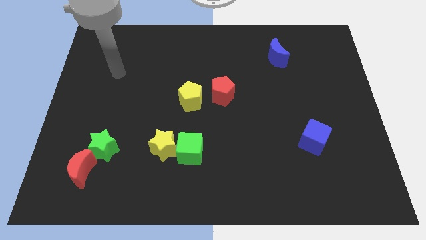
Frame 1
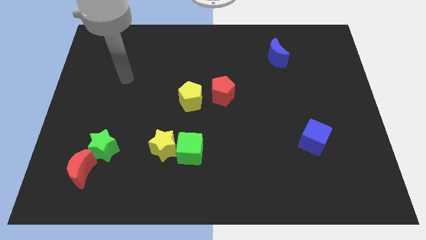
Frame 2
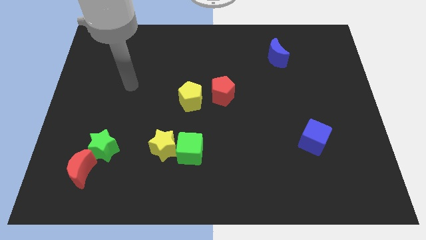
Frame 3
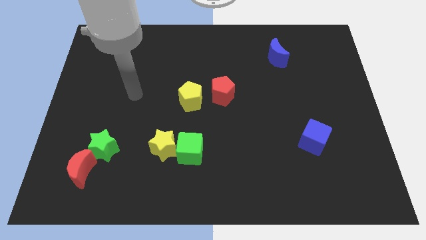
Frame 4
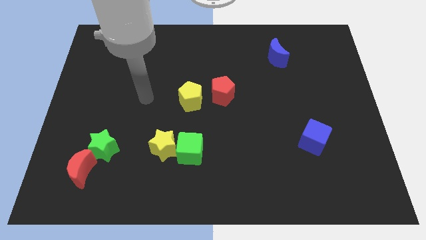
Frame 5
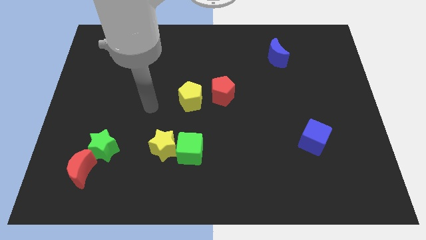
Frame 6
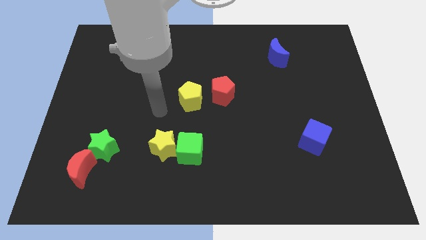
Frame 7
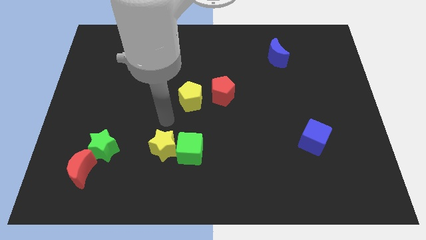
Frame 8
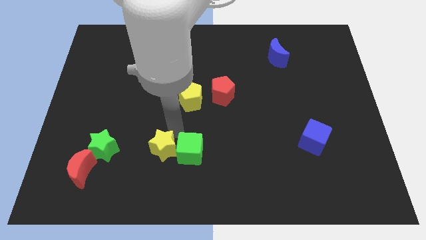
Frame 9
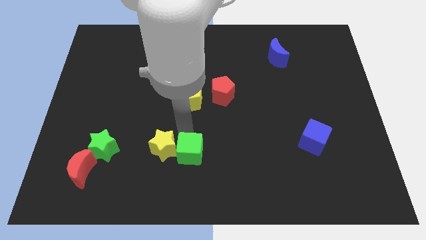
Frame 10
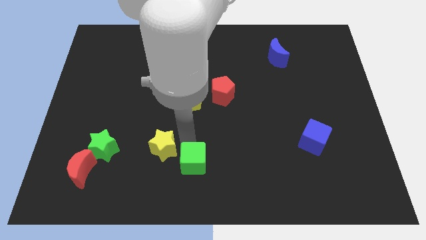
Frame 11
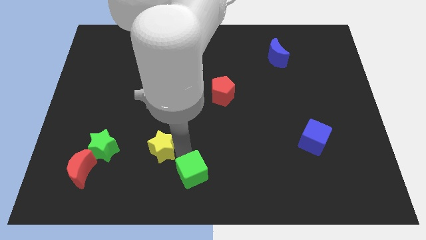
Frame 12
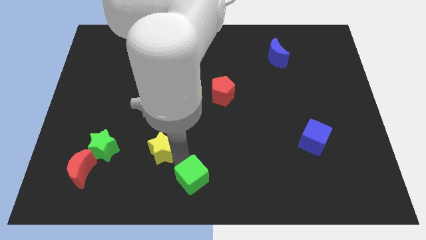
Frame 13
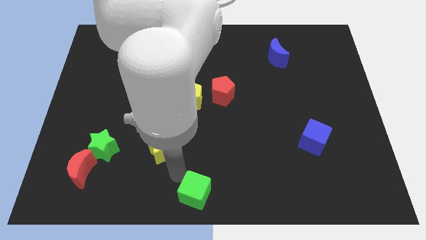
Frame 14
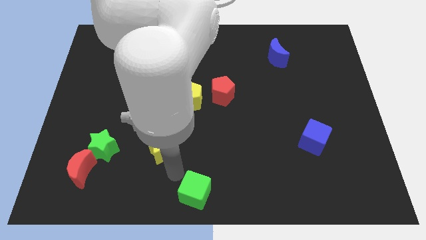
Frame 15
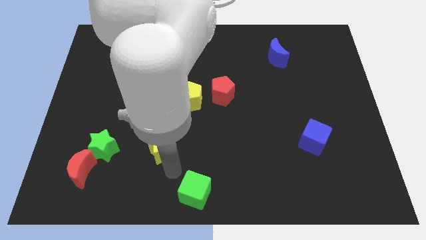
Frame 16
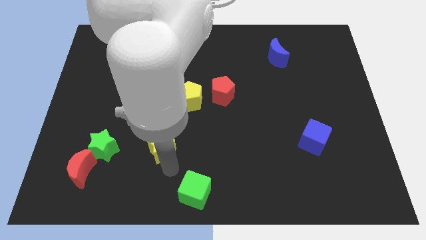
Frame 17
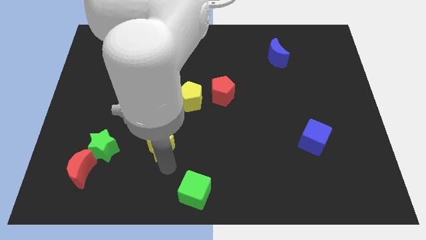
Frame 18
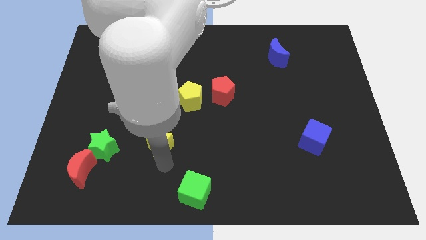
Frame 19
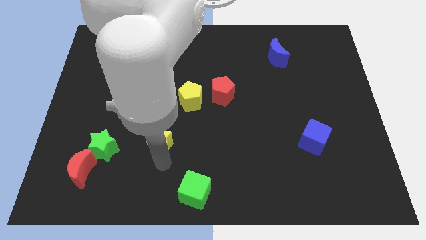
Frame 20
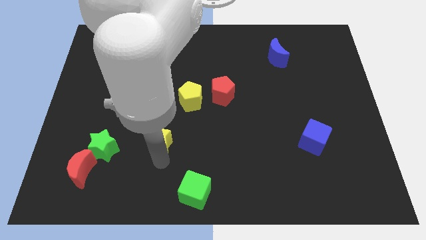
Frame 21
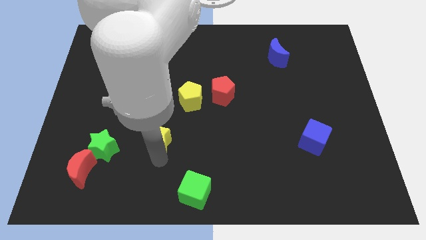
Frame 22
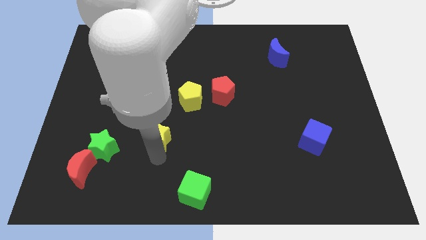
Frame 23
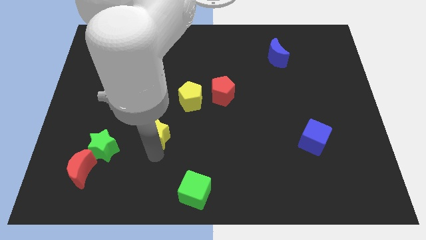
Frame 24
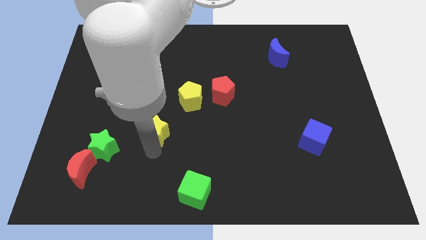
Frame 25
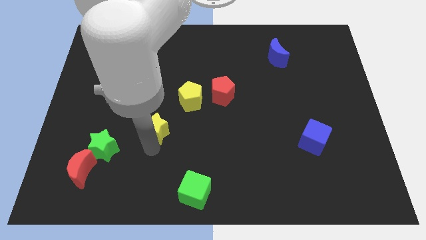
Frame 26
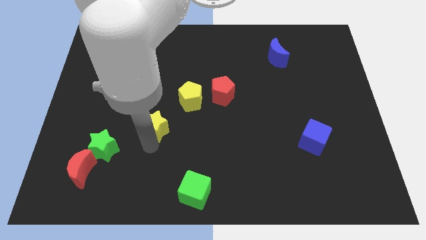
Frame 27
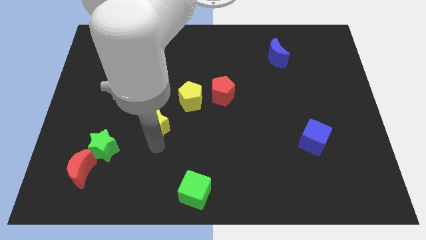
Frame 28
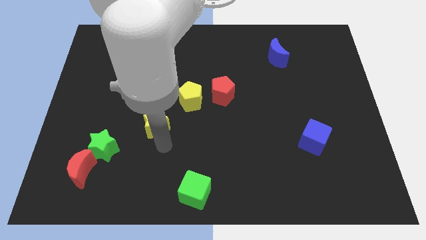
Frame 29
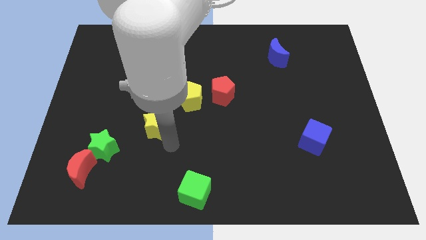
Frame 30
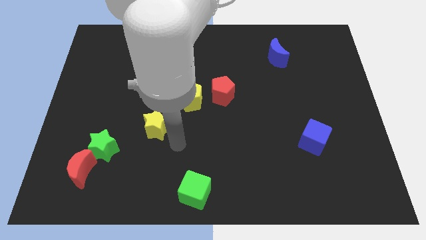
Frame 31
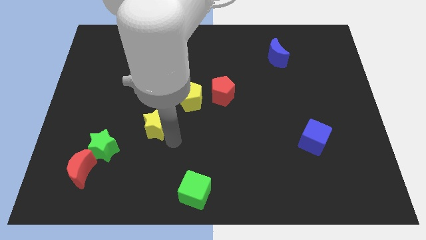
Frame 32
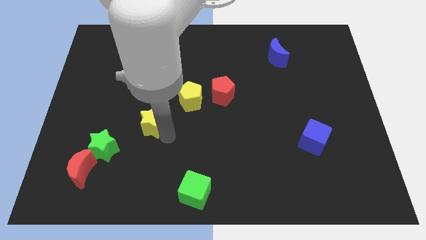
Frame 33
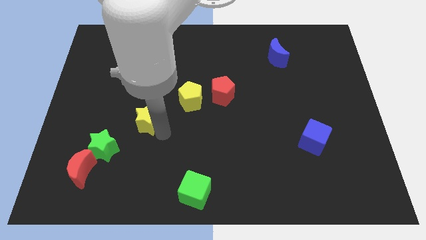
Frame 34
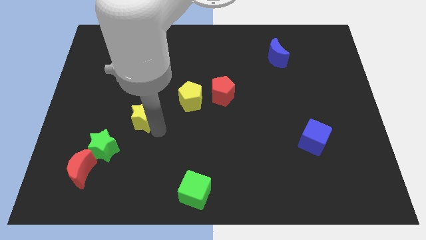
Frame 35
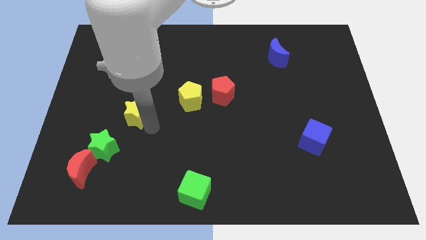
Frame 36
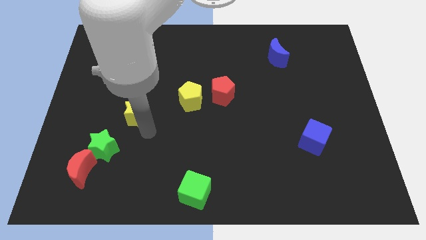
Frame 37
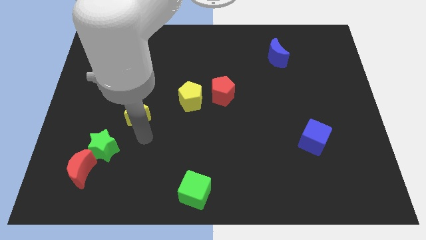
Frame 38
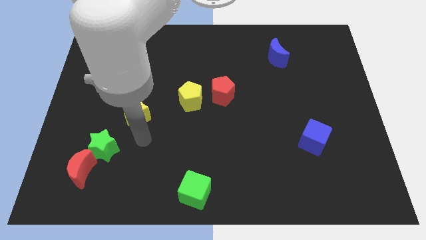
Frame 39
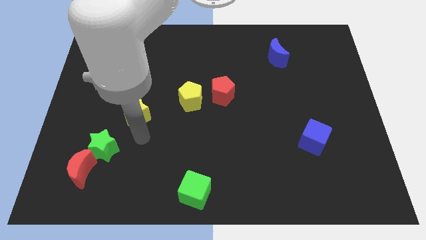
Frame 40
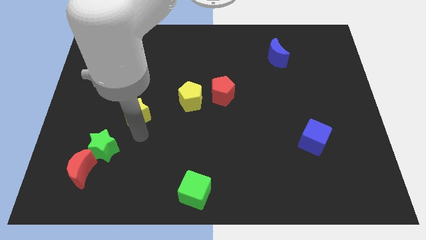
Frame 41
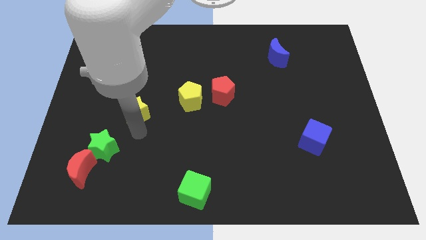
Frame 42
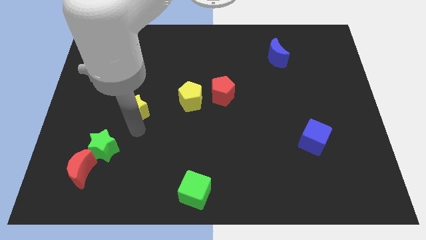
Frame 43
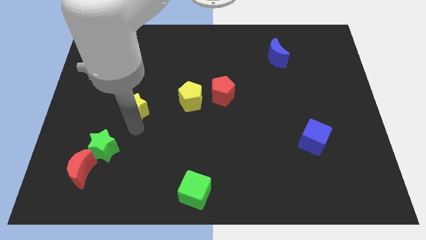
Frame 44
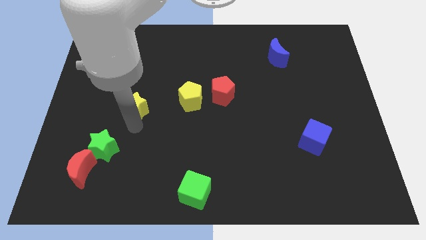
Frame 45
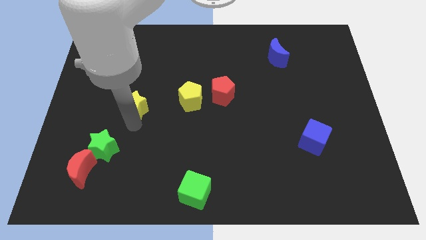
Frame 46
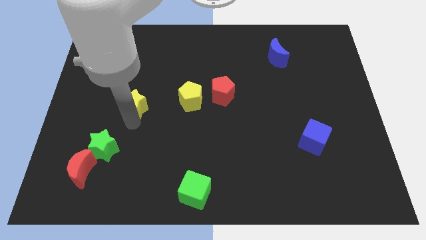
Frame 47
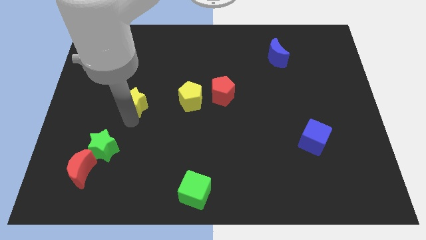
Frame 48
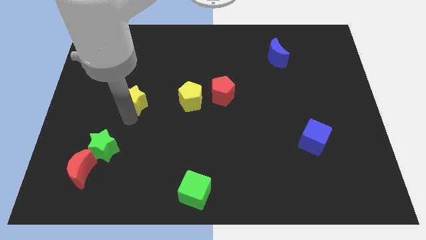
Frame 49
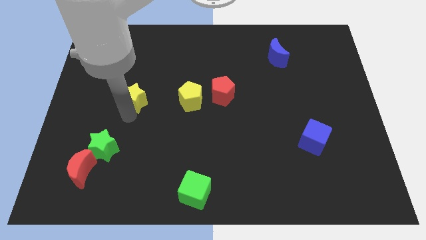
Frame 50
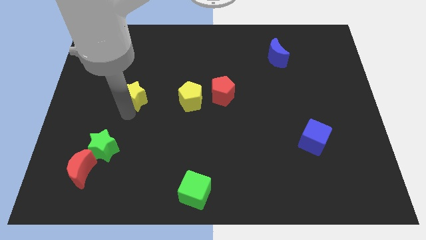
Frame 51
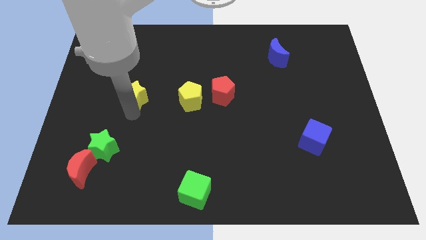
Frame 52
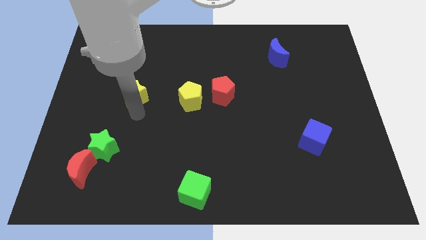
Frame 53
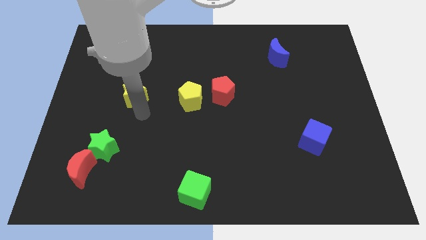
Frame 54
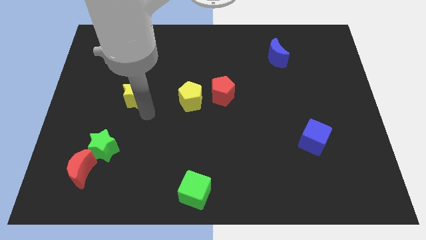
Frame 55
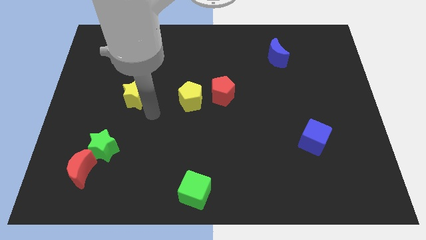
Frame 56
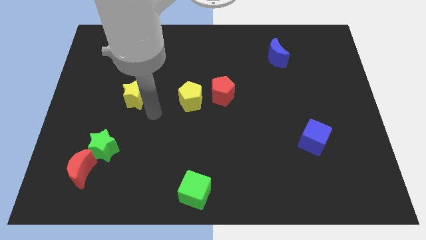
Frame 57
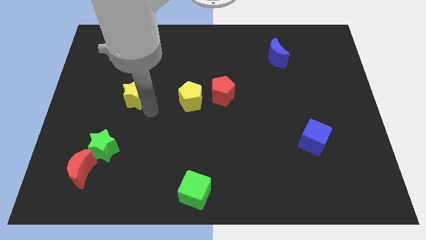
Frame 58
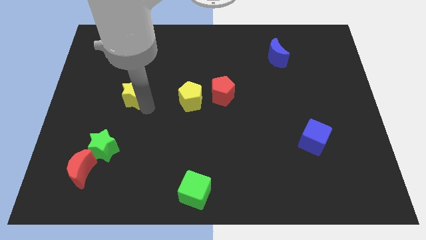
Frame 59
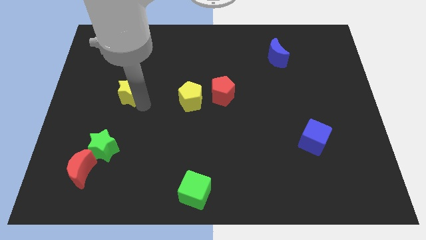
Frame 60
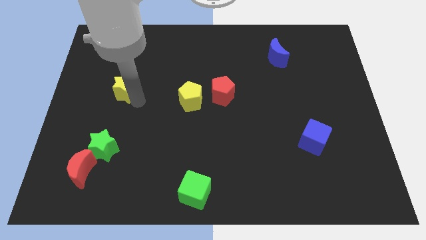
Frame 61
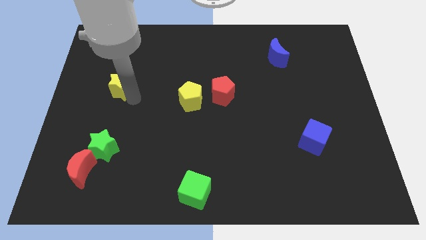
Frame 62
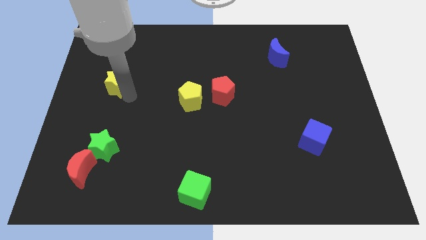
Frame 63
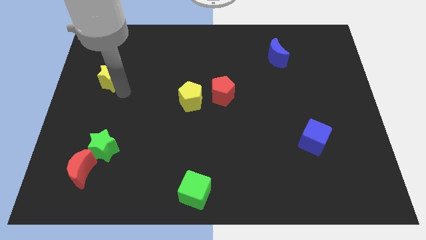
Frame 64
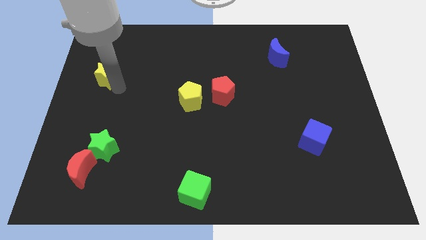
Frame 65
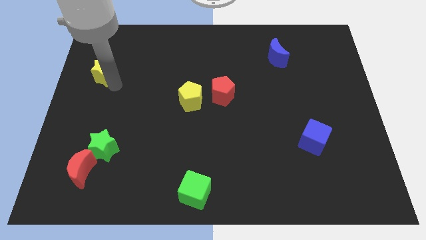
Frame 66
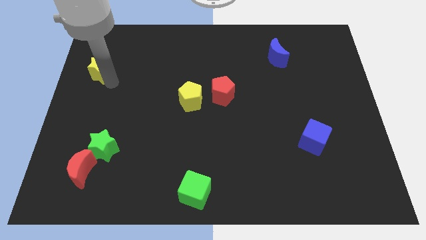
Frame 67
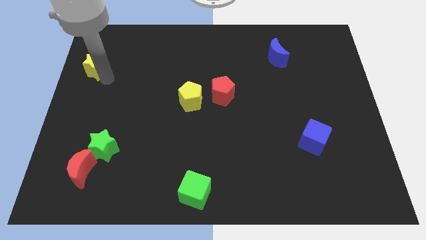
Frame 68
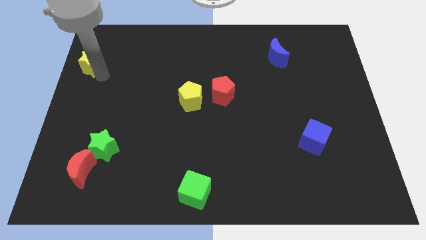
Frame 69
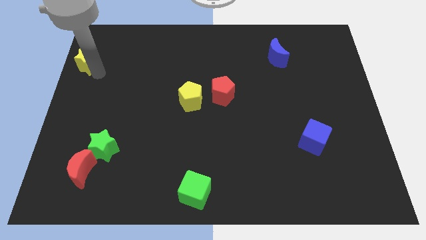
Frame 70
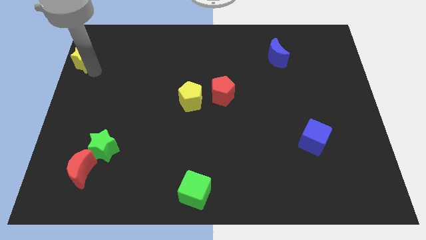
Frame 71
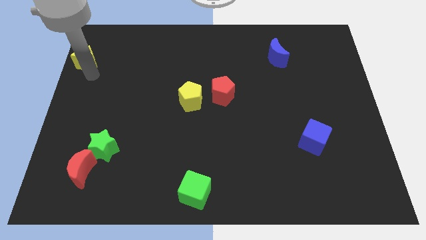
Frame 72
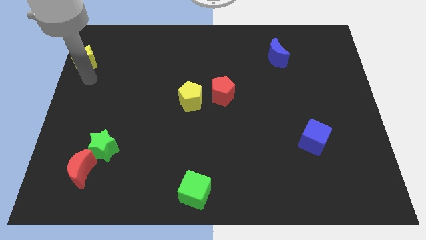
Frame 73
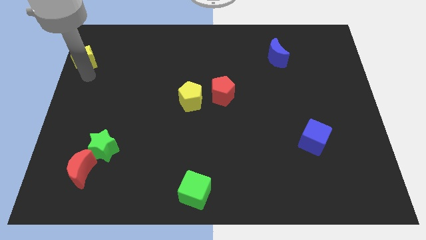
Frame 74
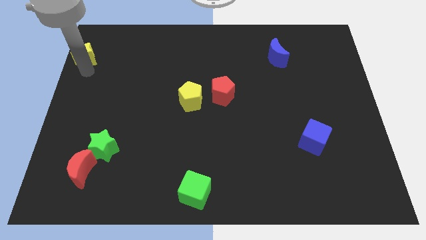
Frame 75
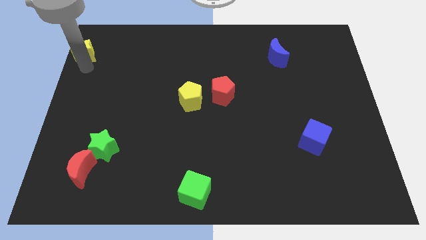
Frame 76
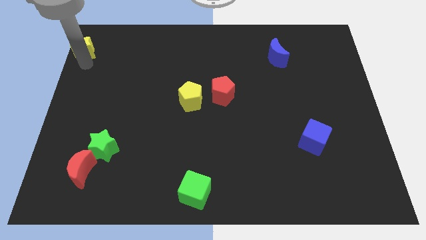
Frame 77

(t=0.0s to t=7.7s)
slide the yellow star to the upper left corner
